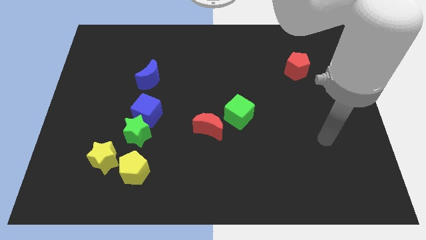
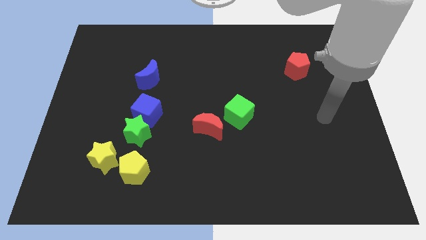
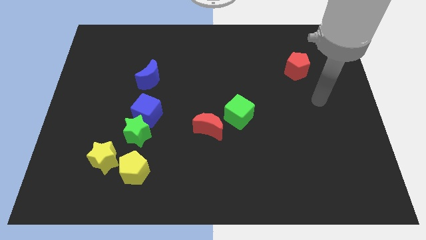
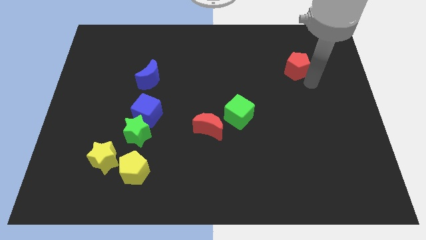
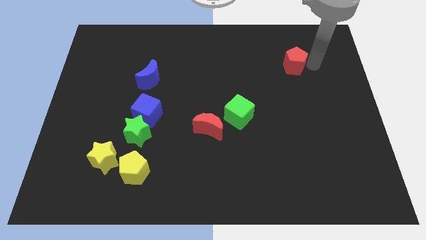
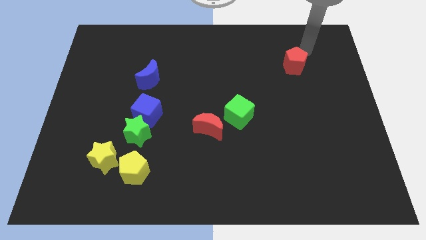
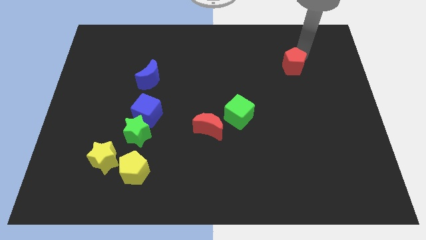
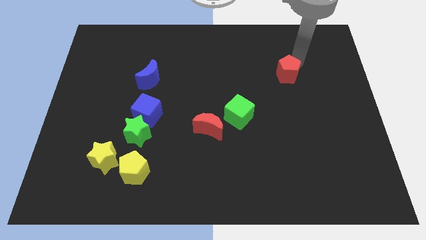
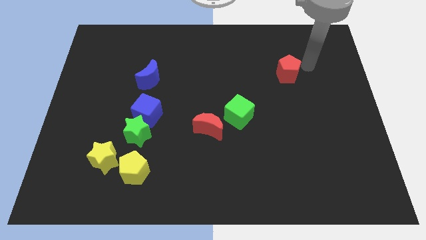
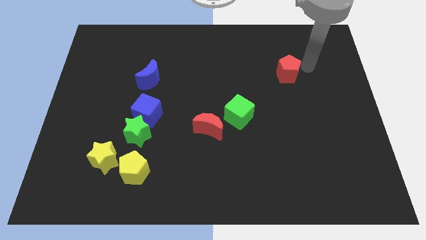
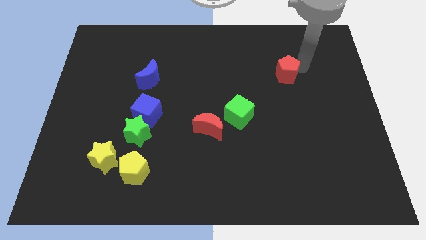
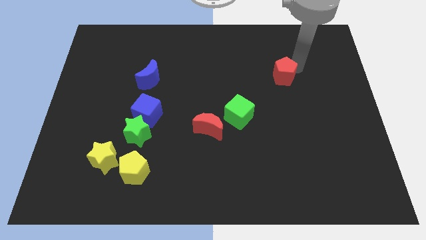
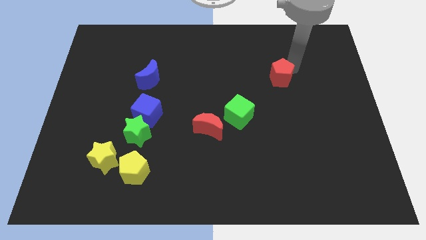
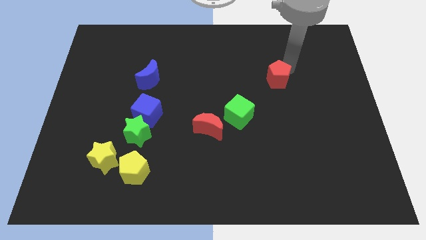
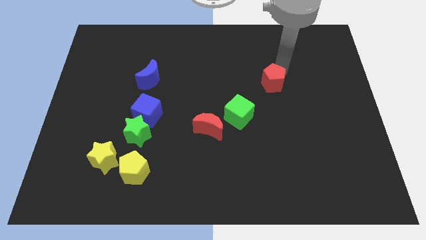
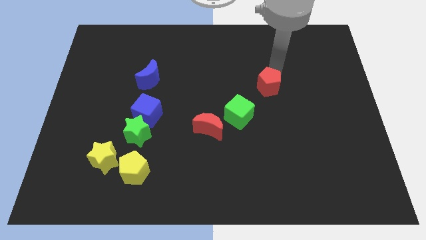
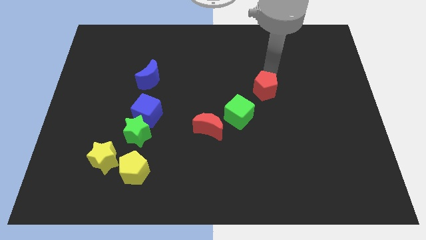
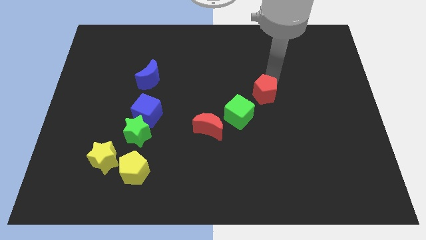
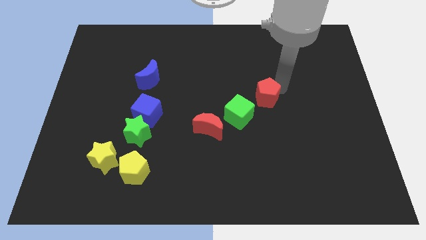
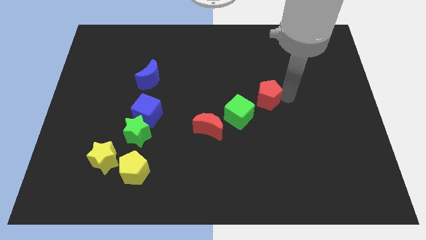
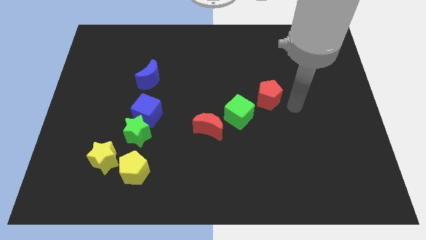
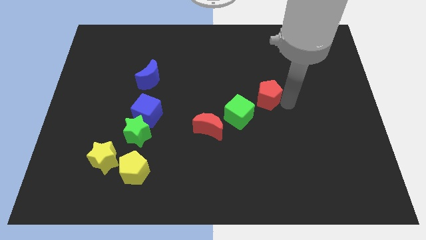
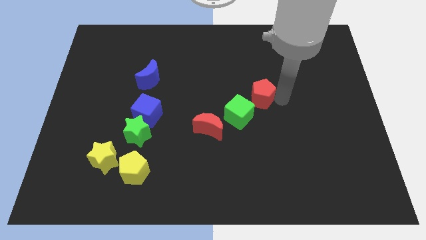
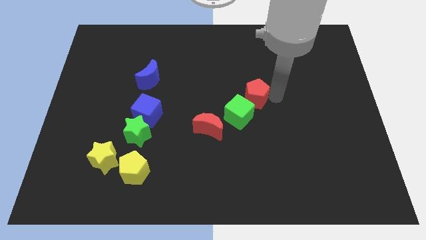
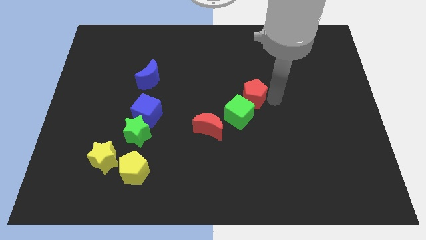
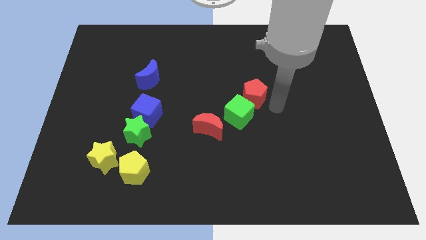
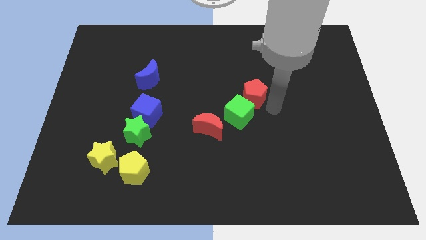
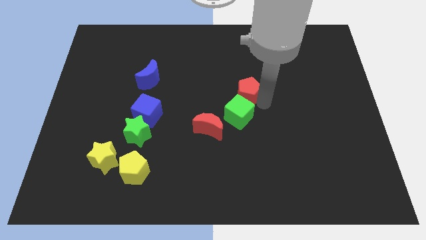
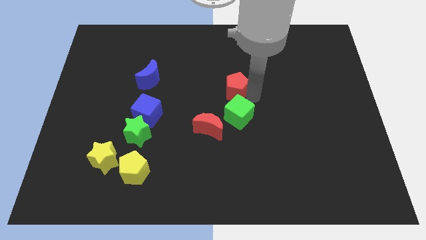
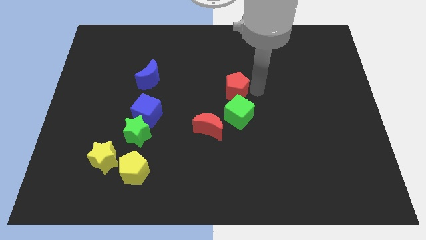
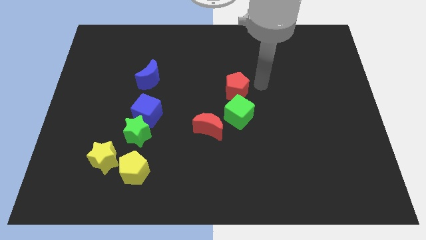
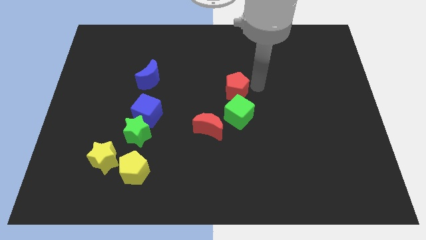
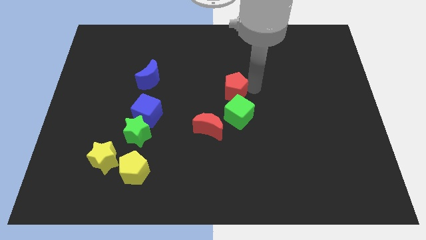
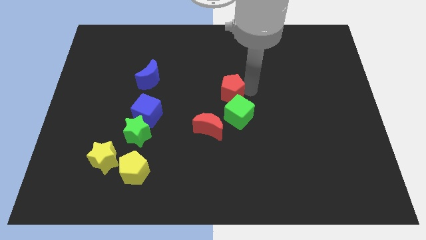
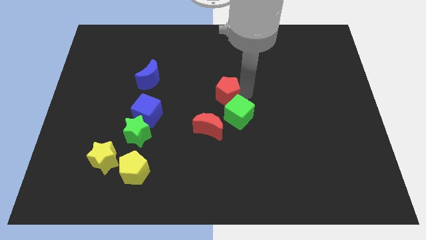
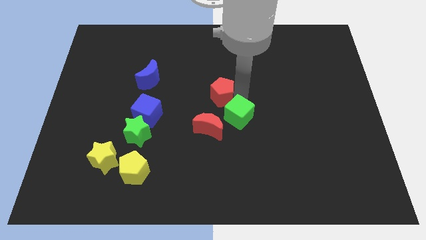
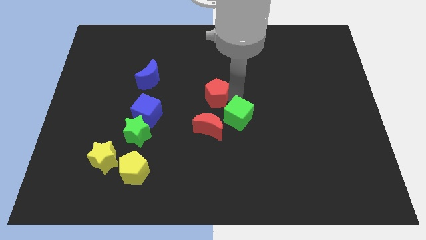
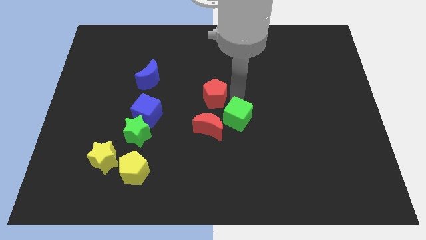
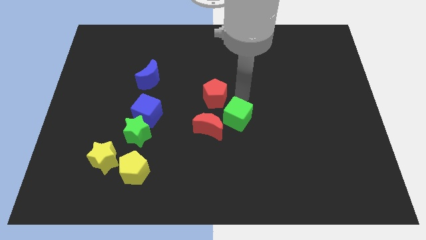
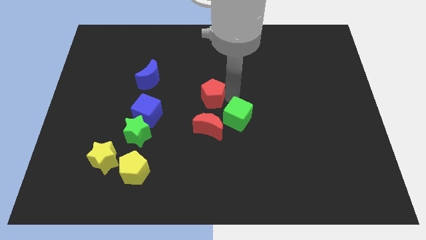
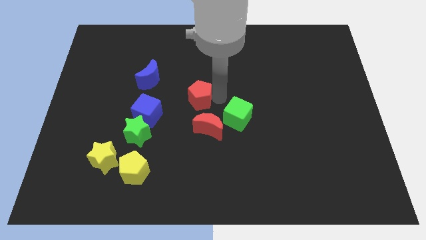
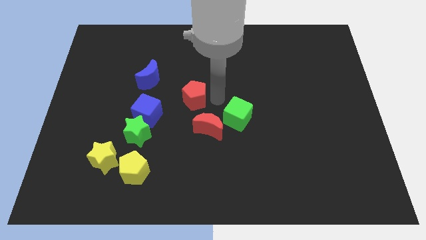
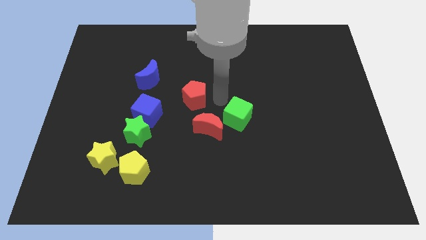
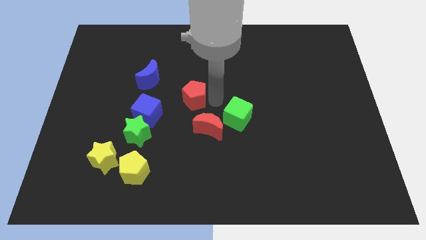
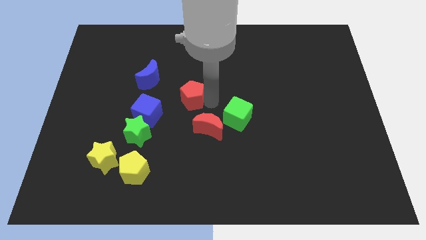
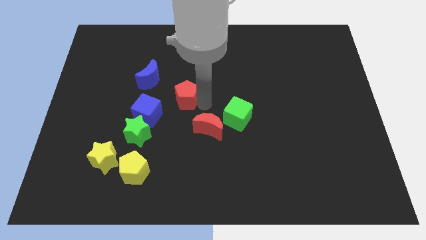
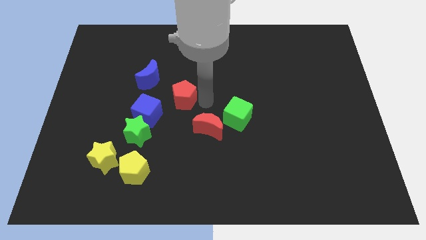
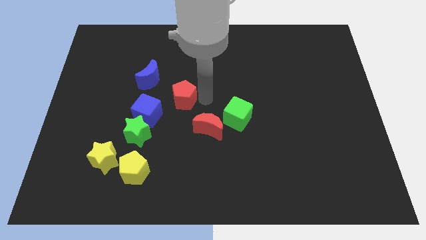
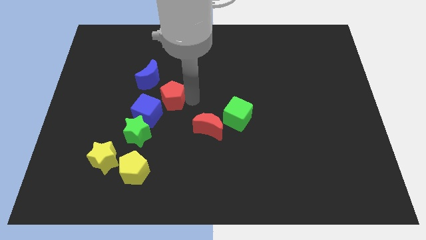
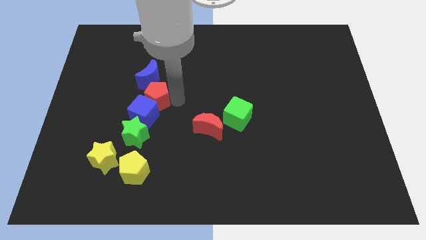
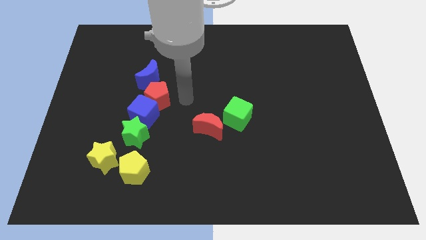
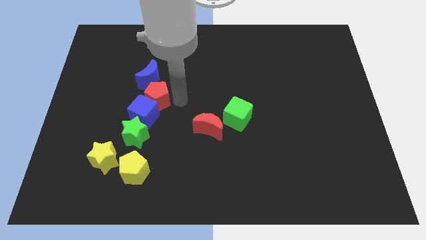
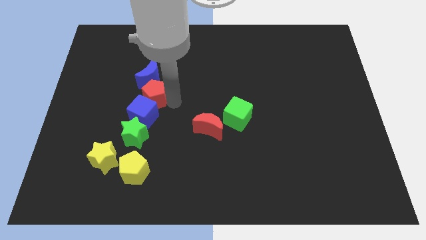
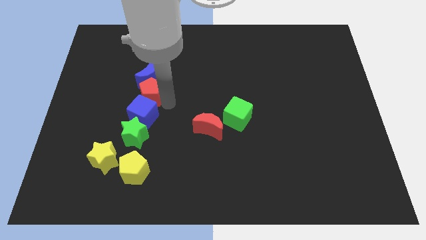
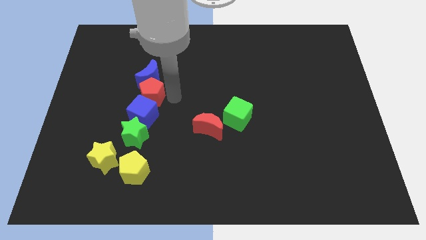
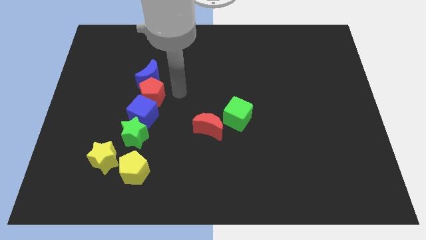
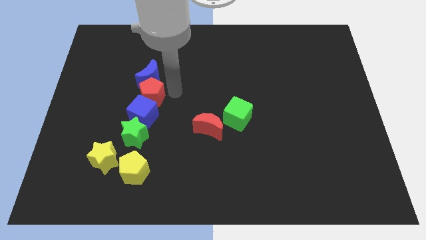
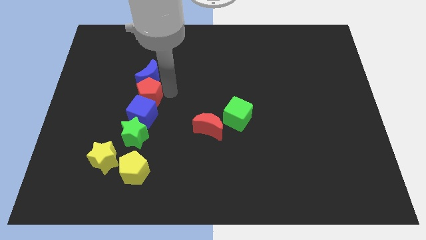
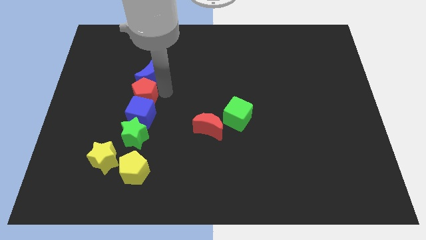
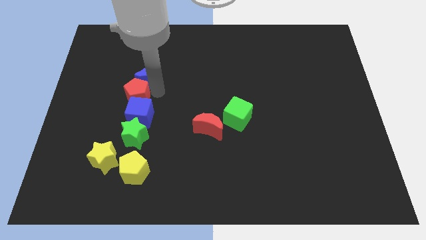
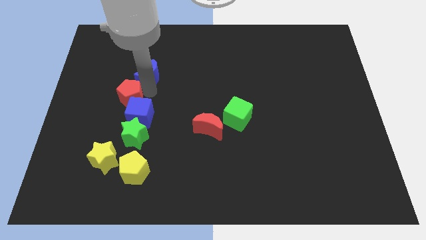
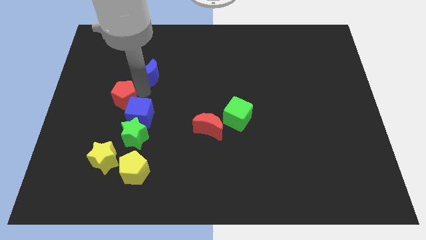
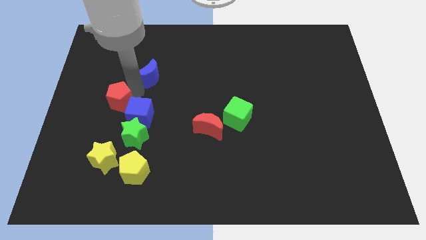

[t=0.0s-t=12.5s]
push the red pentagon to the top side of the yellow star
